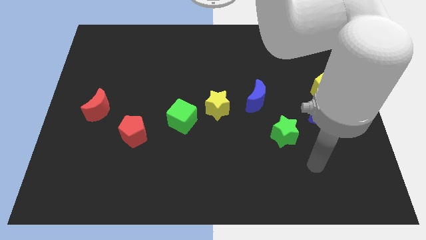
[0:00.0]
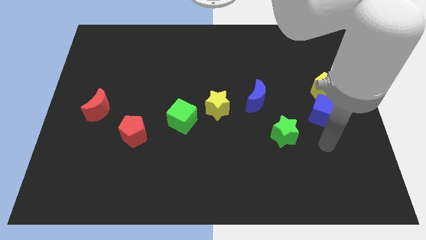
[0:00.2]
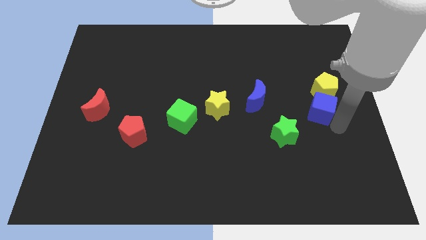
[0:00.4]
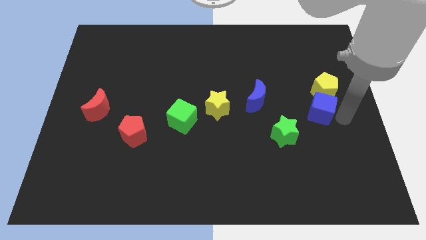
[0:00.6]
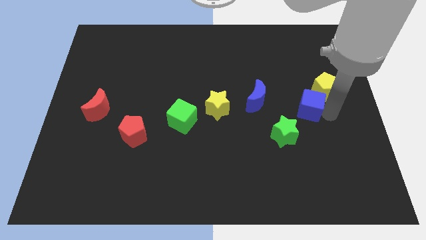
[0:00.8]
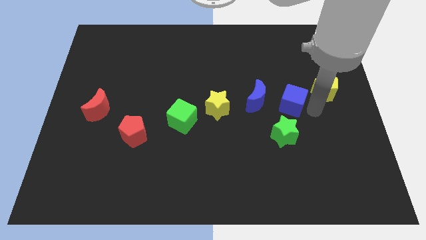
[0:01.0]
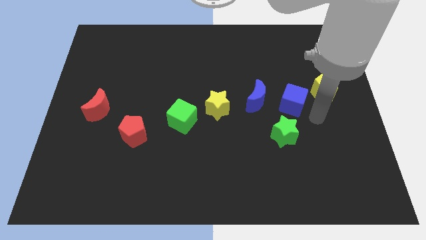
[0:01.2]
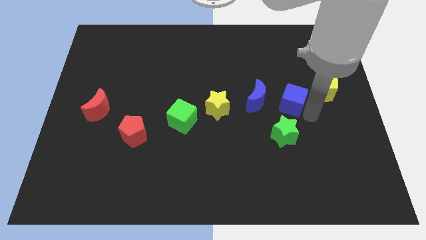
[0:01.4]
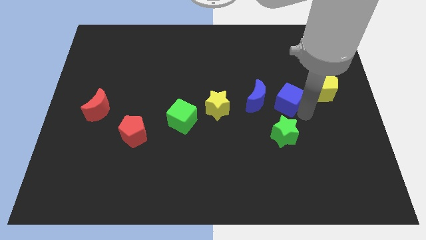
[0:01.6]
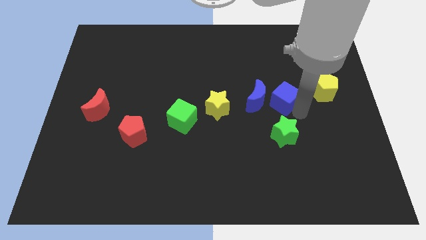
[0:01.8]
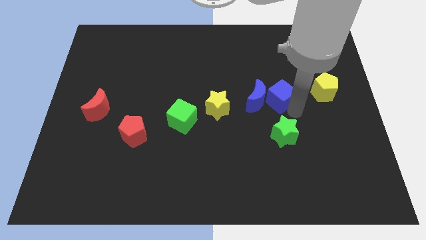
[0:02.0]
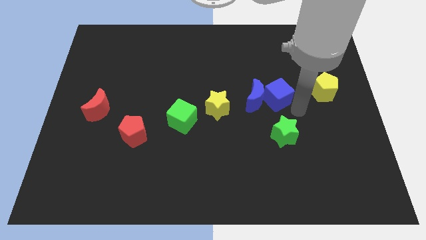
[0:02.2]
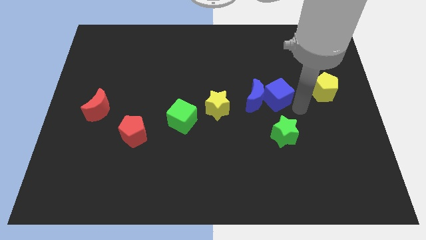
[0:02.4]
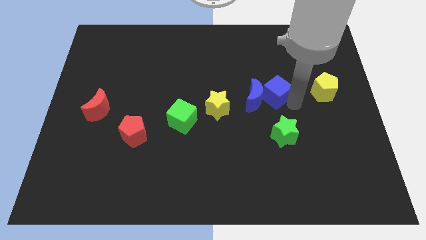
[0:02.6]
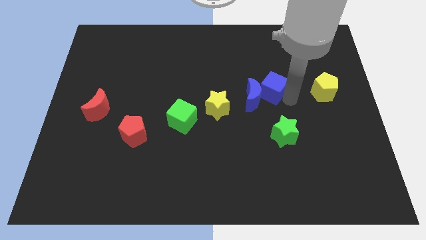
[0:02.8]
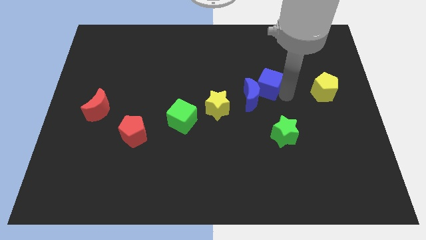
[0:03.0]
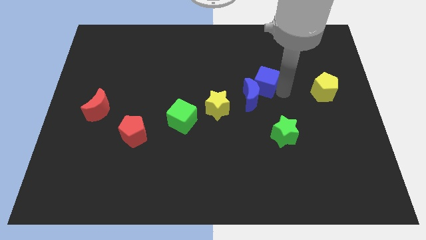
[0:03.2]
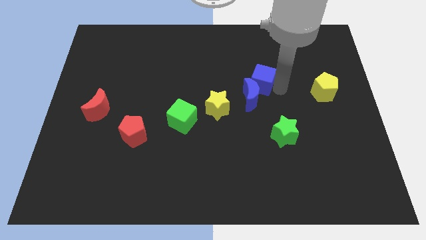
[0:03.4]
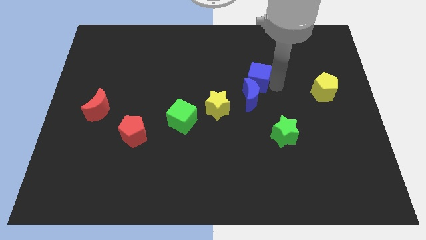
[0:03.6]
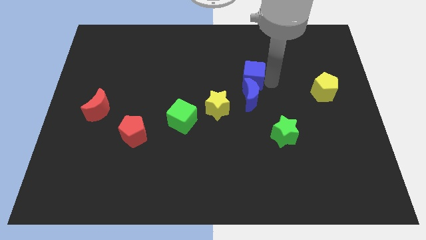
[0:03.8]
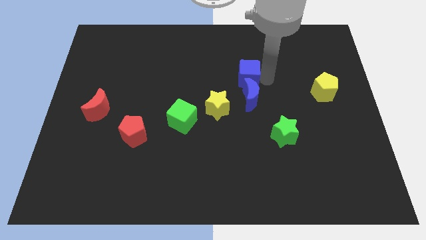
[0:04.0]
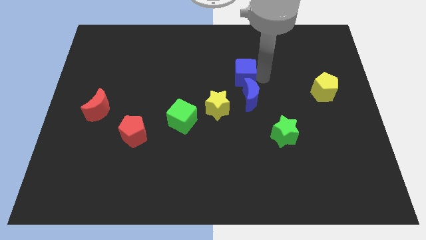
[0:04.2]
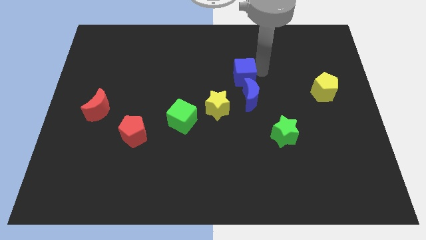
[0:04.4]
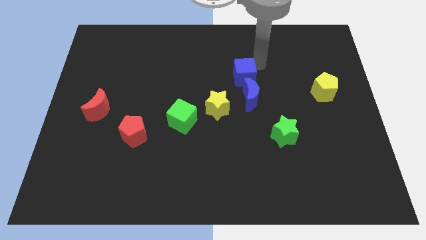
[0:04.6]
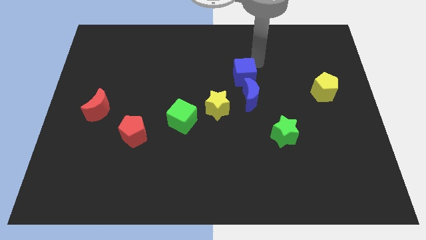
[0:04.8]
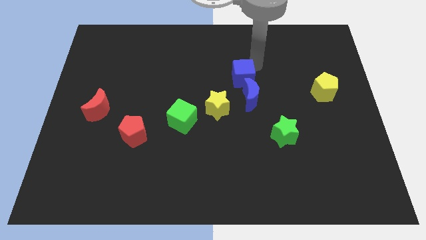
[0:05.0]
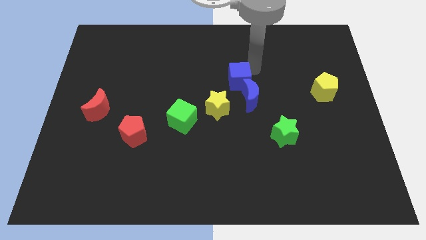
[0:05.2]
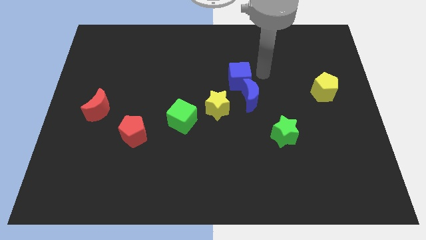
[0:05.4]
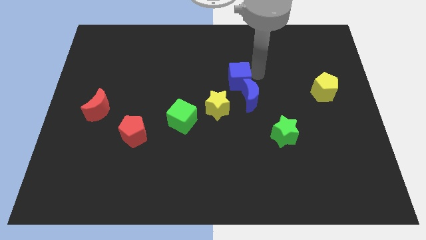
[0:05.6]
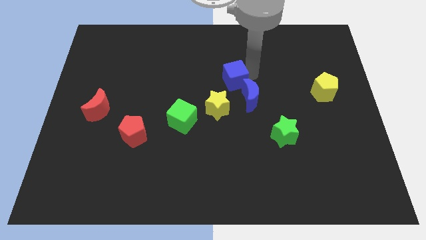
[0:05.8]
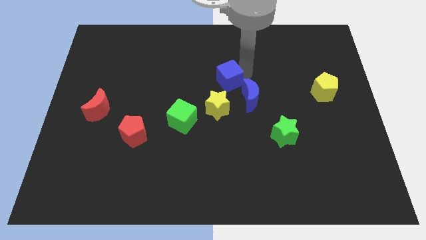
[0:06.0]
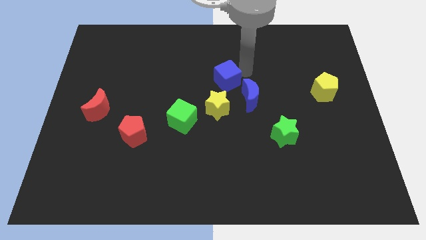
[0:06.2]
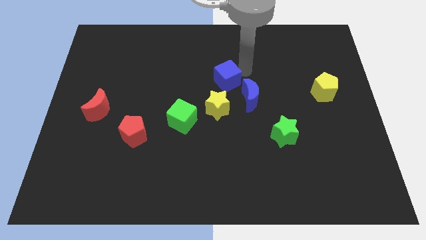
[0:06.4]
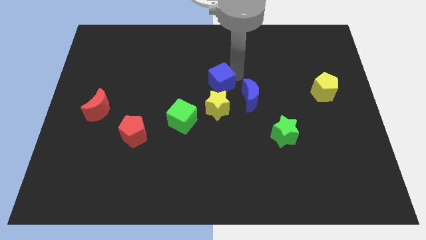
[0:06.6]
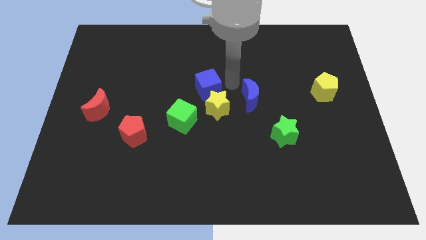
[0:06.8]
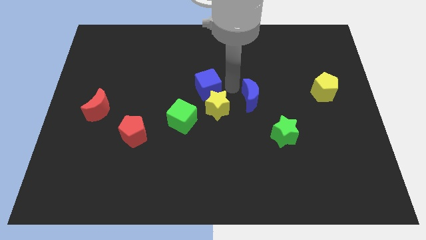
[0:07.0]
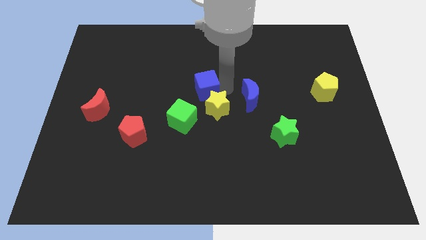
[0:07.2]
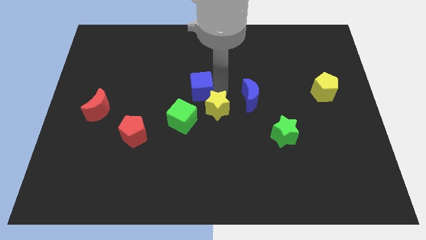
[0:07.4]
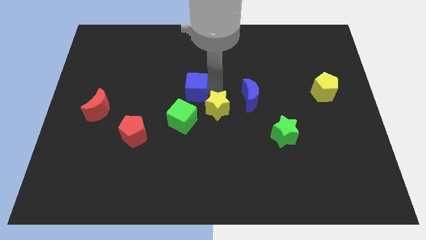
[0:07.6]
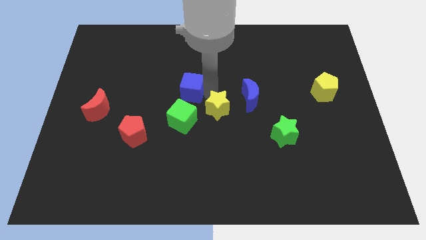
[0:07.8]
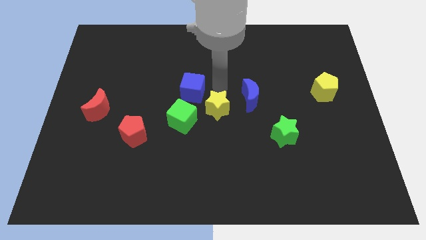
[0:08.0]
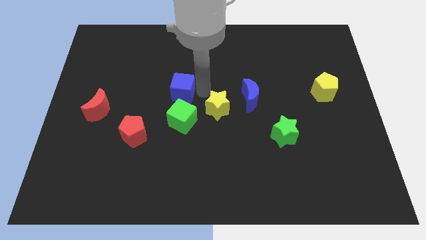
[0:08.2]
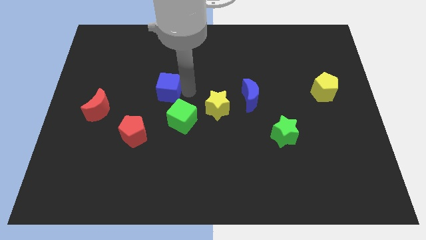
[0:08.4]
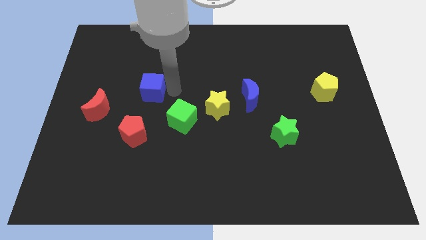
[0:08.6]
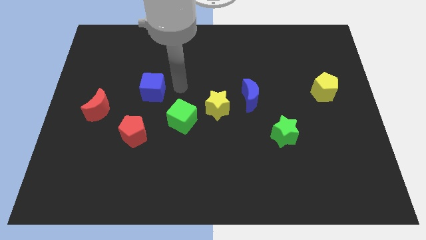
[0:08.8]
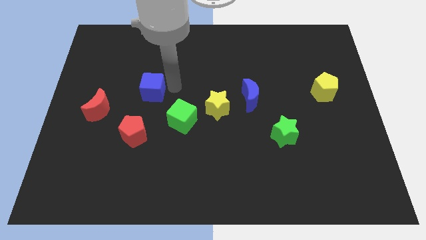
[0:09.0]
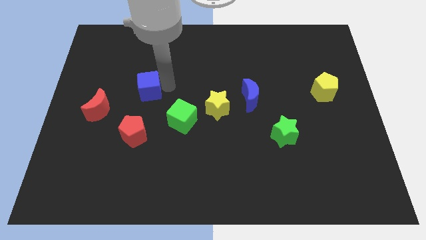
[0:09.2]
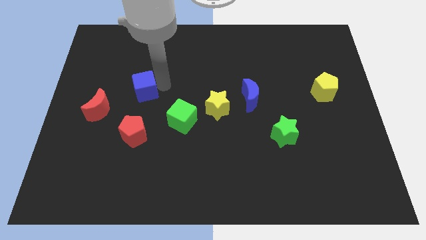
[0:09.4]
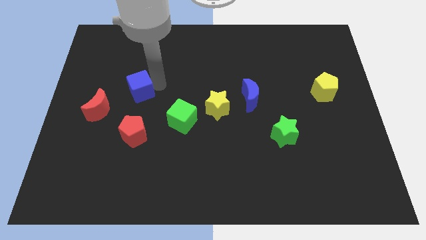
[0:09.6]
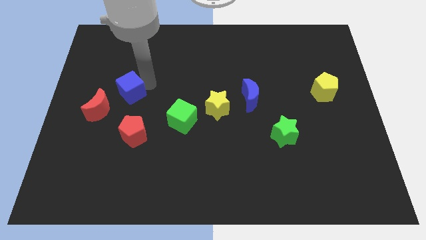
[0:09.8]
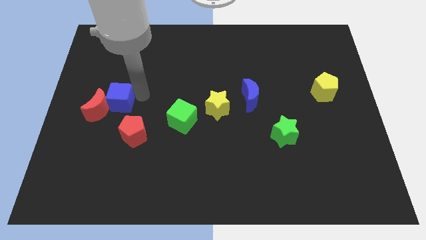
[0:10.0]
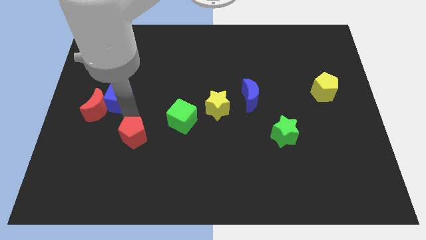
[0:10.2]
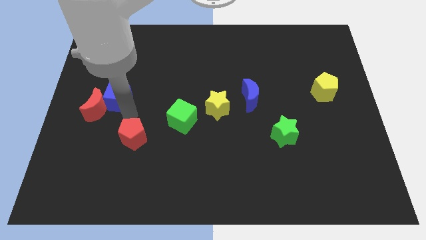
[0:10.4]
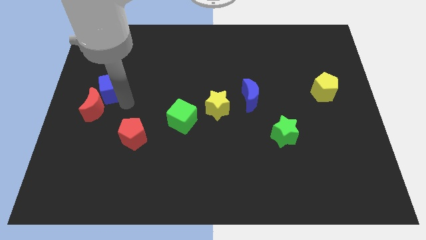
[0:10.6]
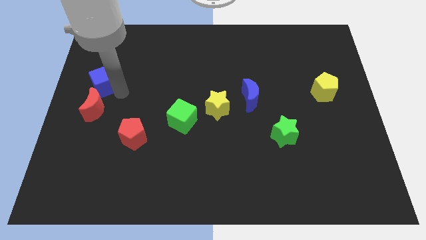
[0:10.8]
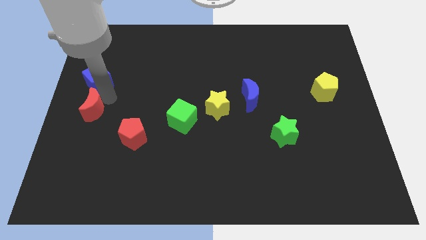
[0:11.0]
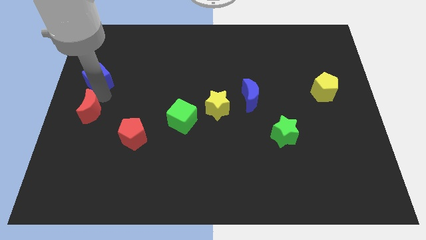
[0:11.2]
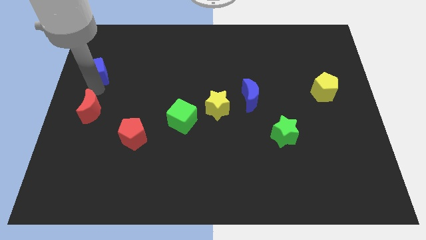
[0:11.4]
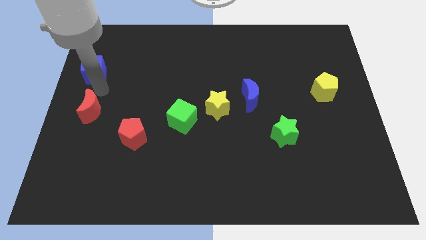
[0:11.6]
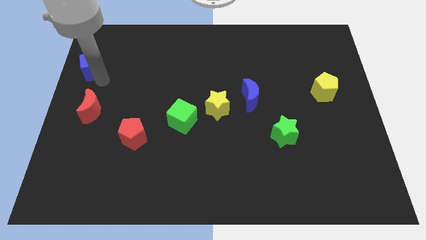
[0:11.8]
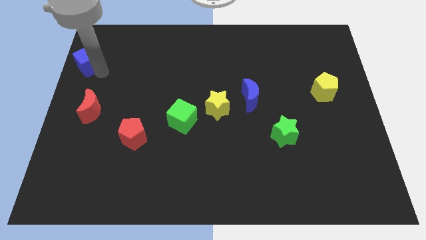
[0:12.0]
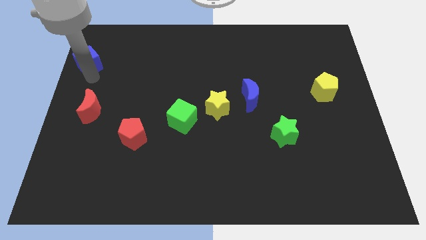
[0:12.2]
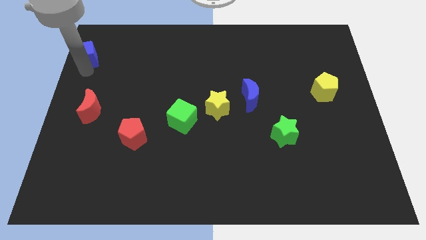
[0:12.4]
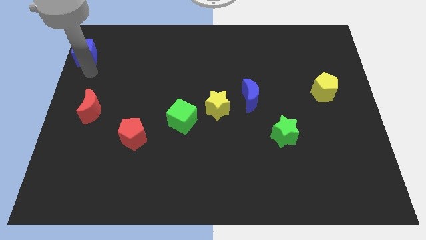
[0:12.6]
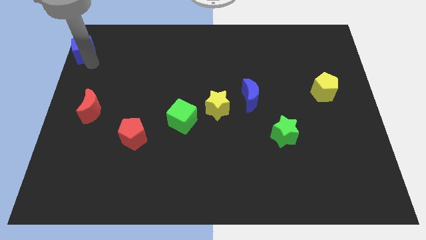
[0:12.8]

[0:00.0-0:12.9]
put the blue cube to the top left
